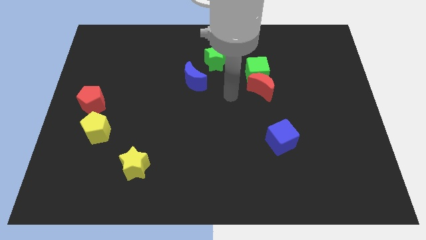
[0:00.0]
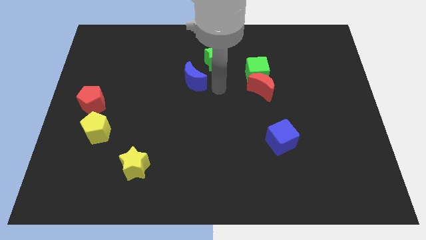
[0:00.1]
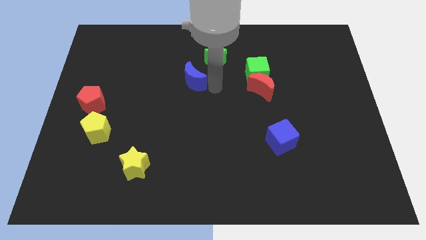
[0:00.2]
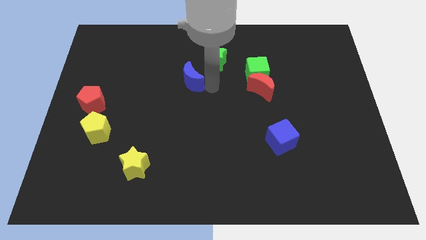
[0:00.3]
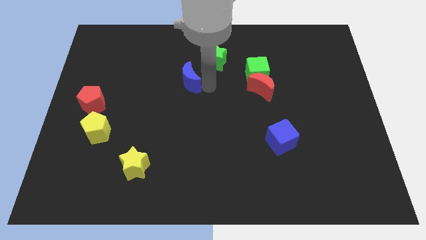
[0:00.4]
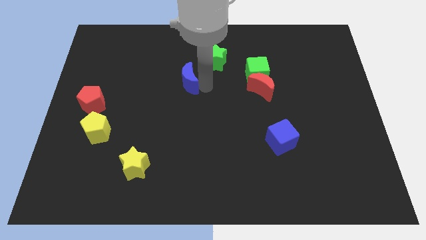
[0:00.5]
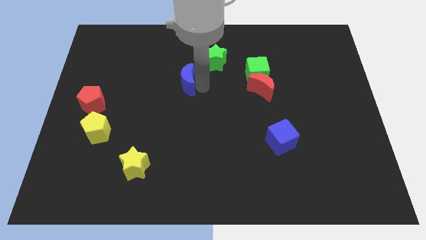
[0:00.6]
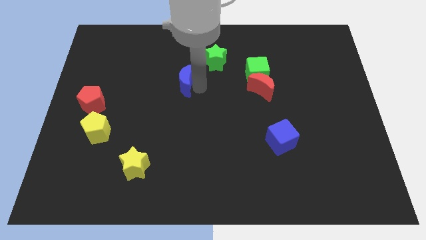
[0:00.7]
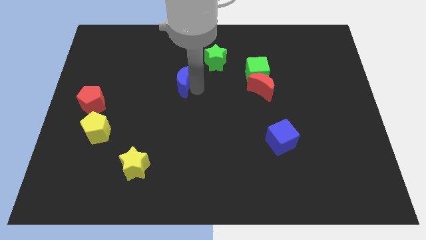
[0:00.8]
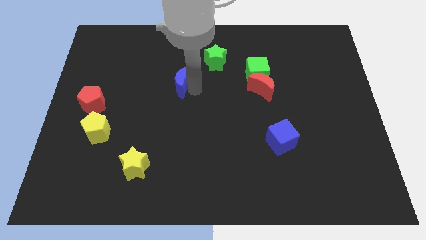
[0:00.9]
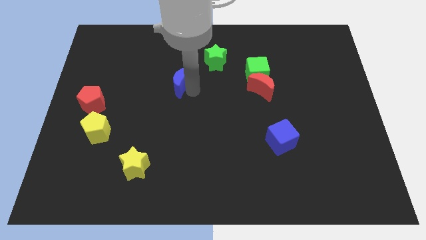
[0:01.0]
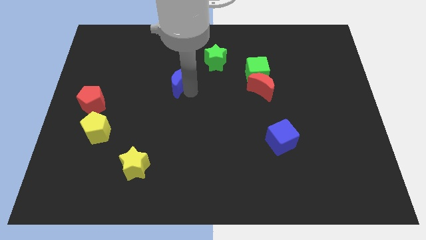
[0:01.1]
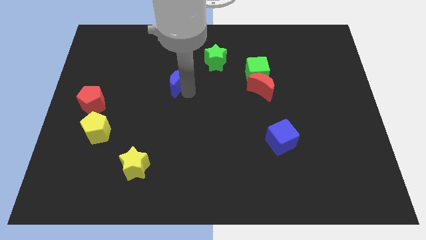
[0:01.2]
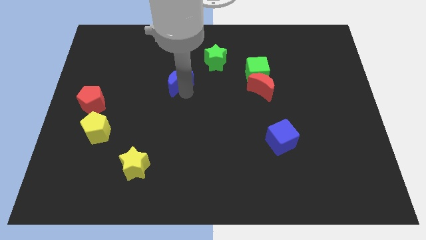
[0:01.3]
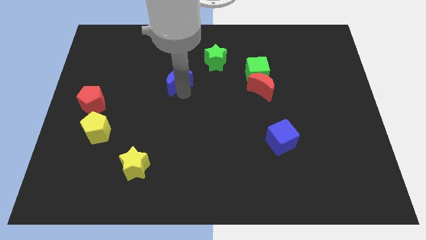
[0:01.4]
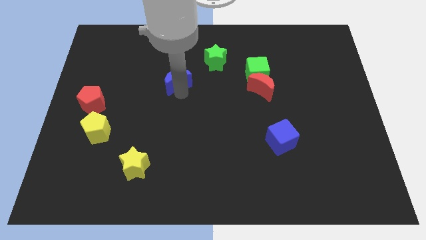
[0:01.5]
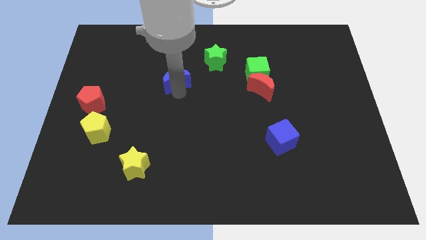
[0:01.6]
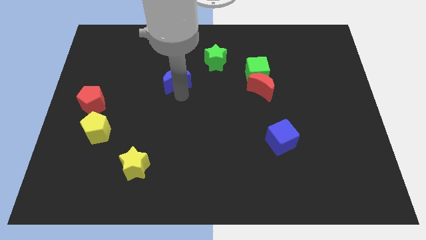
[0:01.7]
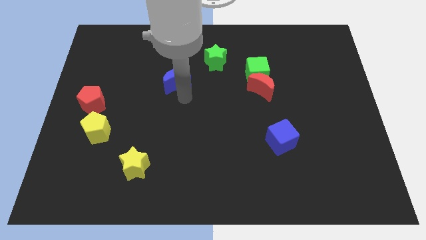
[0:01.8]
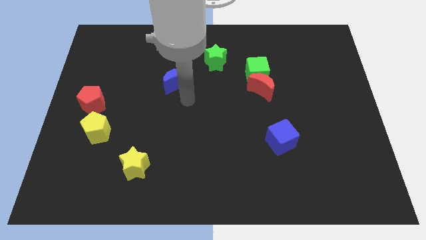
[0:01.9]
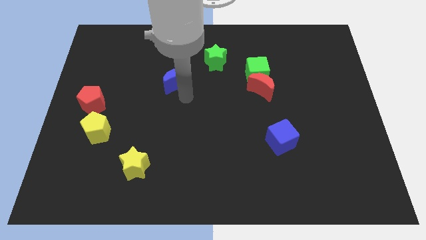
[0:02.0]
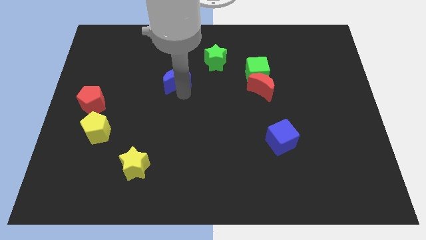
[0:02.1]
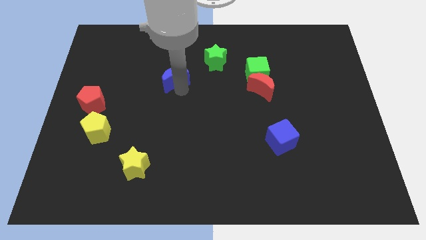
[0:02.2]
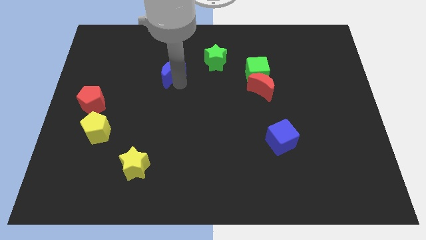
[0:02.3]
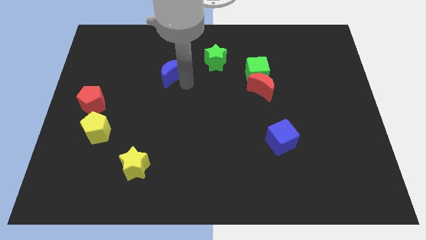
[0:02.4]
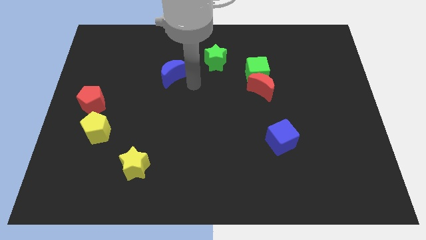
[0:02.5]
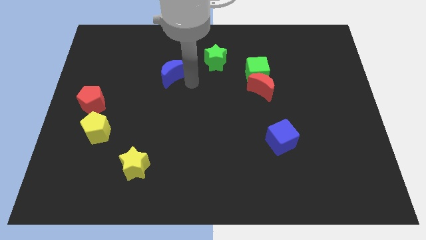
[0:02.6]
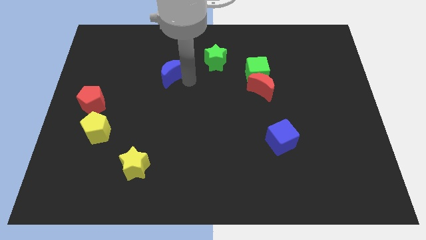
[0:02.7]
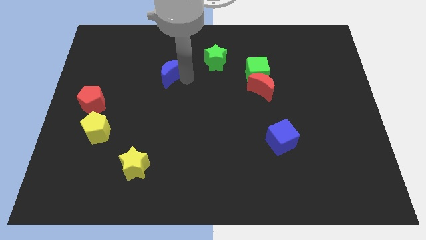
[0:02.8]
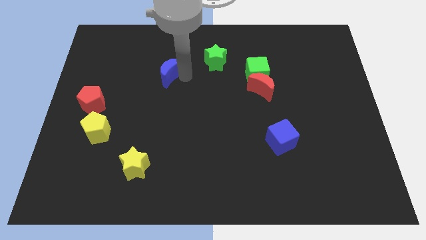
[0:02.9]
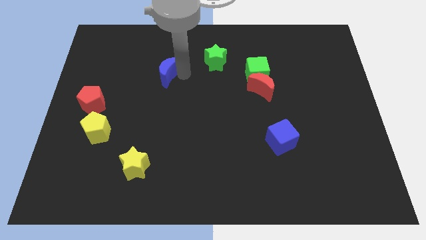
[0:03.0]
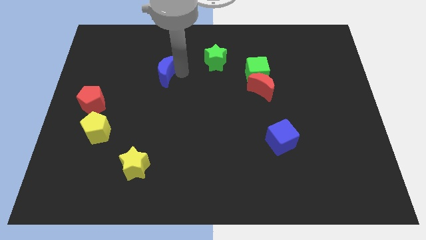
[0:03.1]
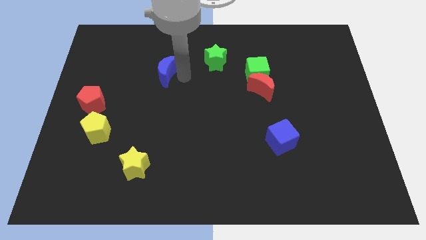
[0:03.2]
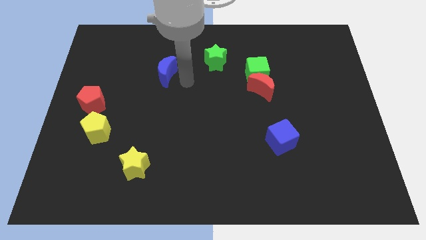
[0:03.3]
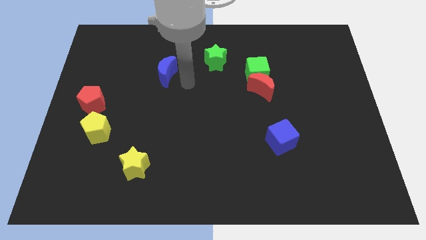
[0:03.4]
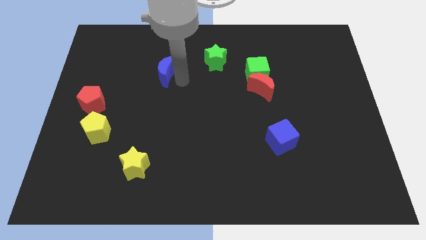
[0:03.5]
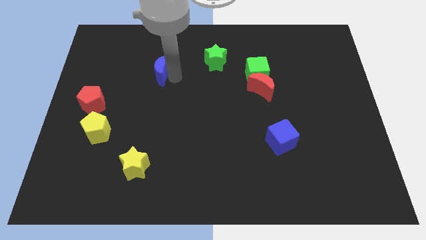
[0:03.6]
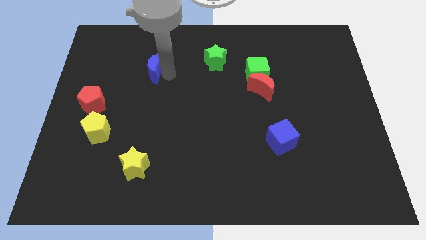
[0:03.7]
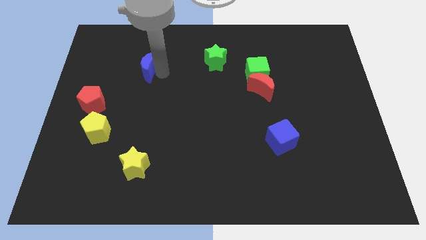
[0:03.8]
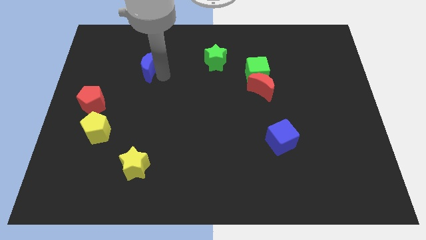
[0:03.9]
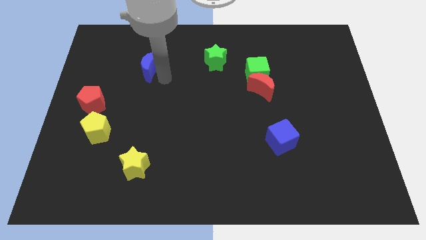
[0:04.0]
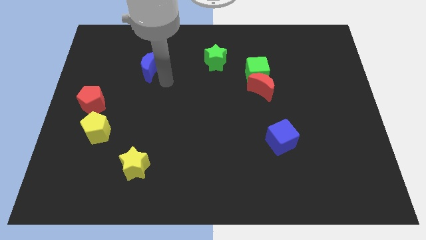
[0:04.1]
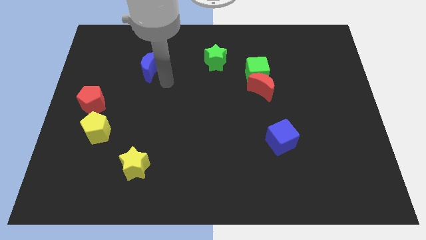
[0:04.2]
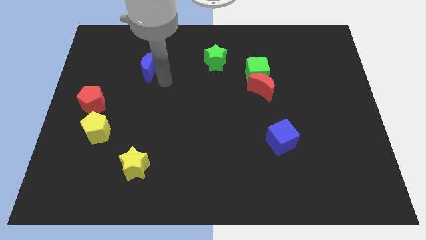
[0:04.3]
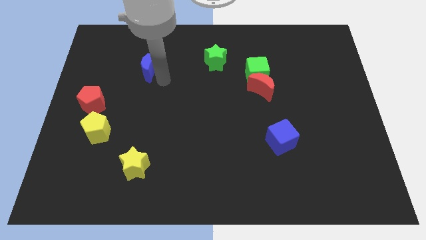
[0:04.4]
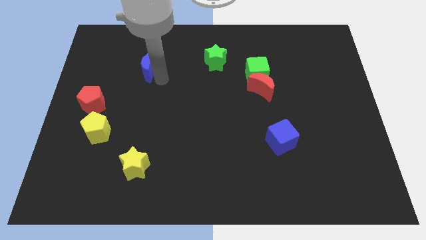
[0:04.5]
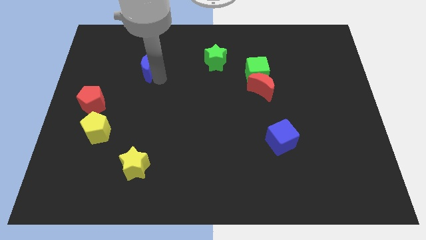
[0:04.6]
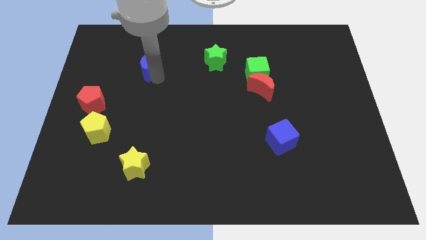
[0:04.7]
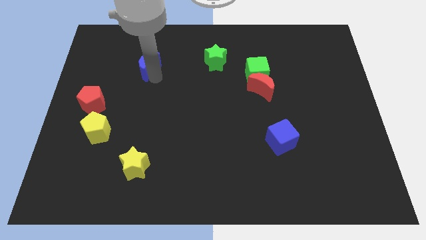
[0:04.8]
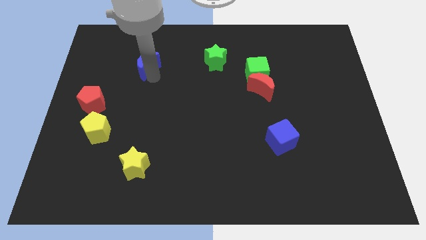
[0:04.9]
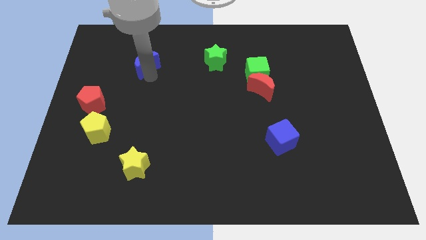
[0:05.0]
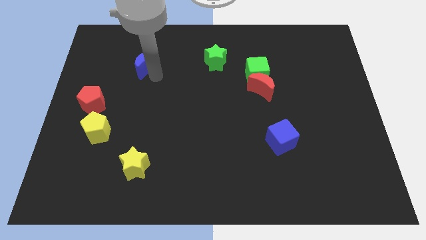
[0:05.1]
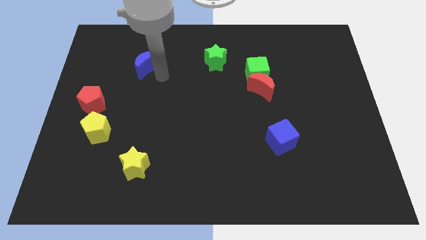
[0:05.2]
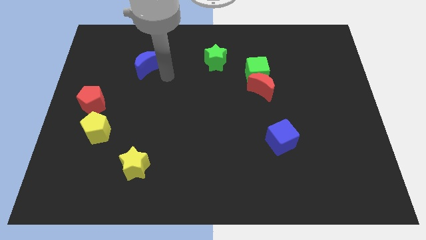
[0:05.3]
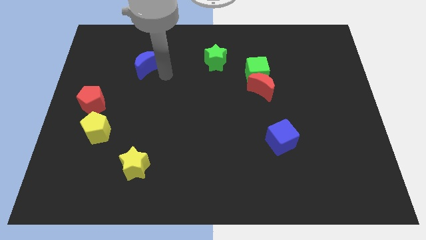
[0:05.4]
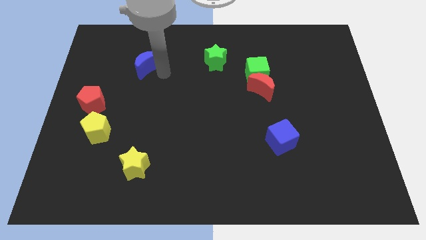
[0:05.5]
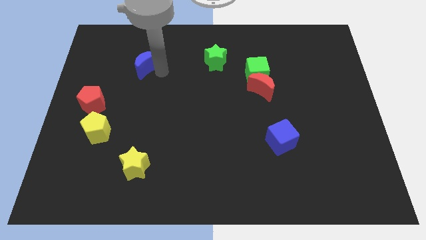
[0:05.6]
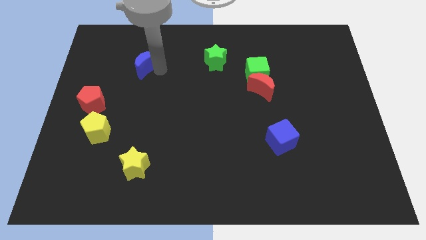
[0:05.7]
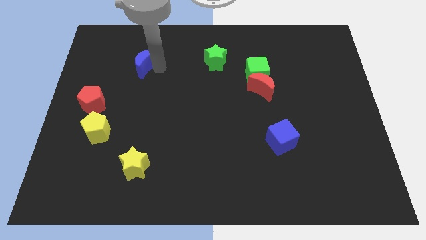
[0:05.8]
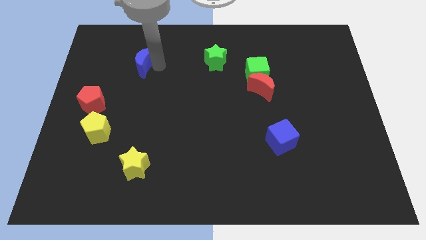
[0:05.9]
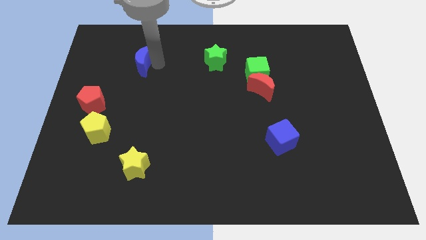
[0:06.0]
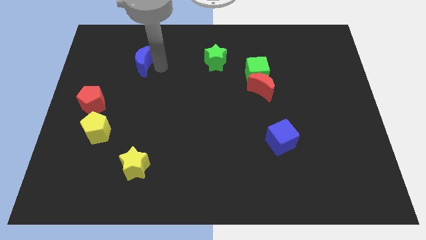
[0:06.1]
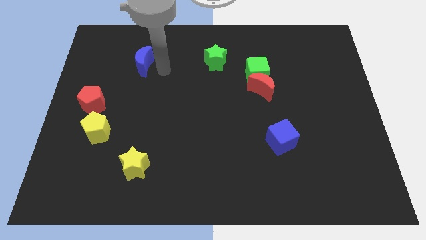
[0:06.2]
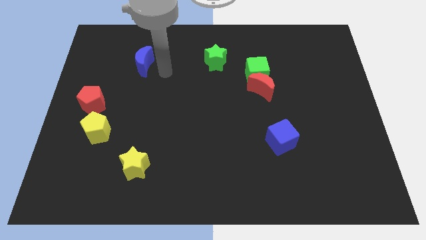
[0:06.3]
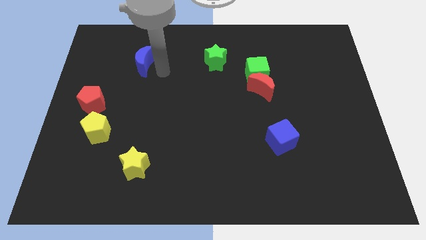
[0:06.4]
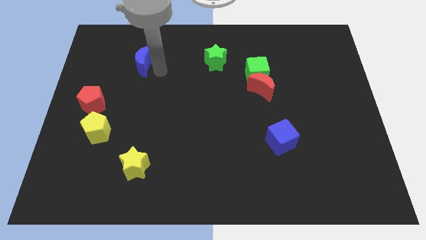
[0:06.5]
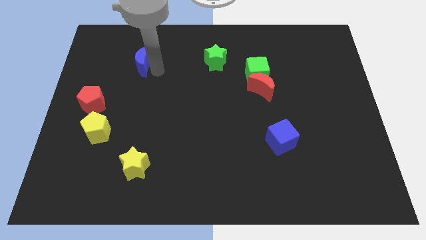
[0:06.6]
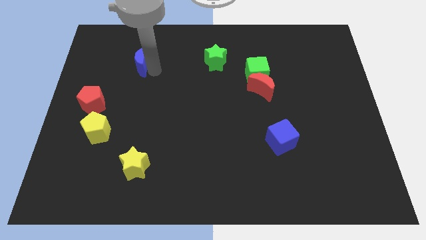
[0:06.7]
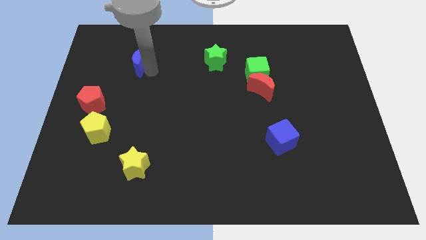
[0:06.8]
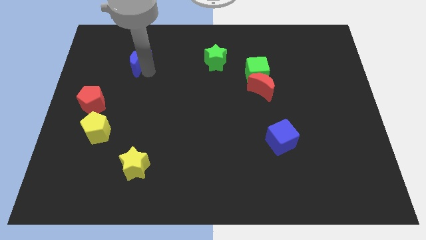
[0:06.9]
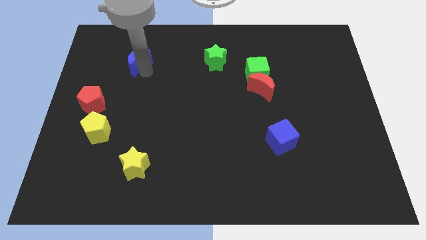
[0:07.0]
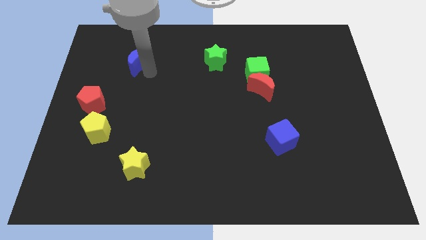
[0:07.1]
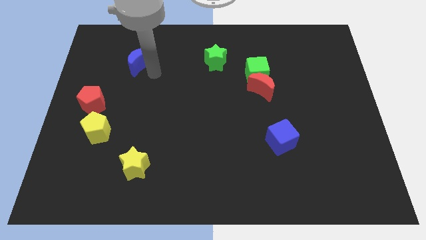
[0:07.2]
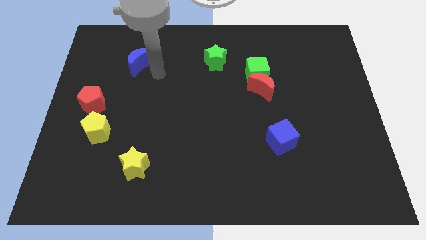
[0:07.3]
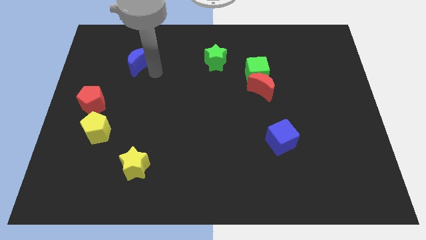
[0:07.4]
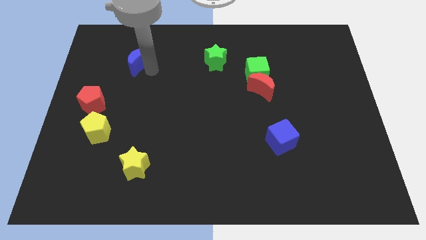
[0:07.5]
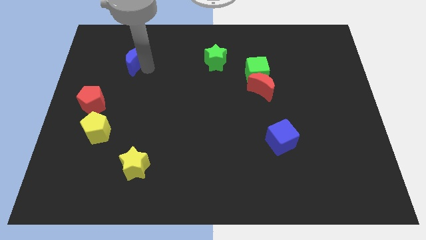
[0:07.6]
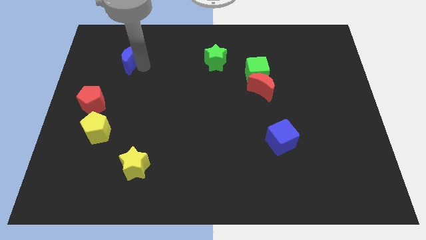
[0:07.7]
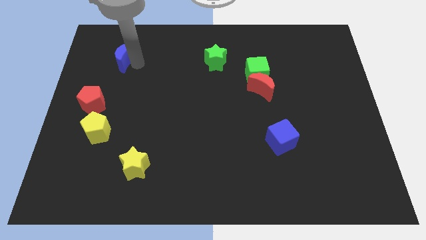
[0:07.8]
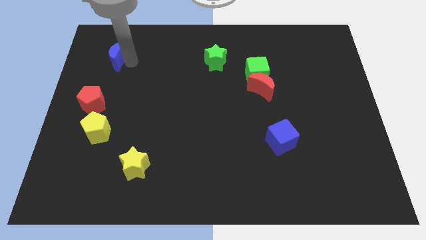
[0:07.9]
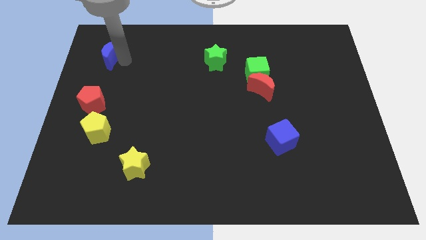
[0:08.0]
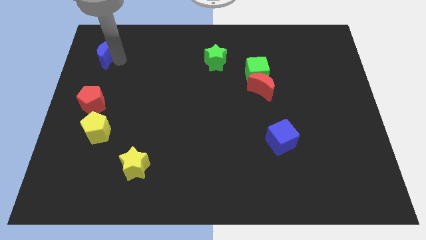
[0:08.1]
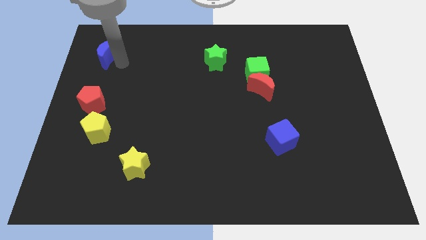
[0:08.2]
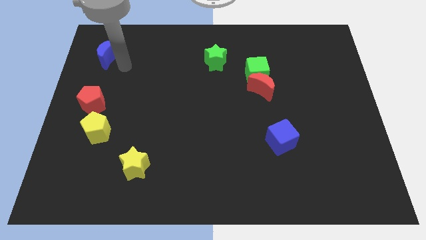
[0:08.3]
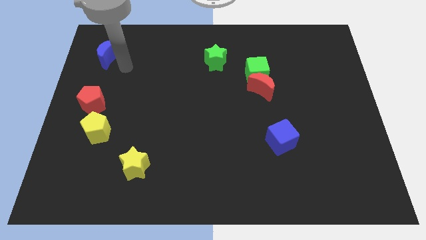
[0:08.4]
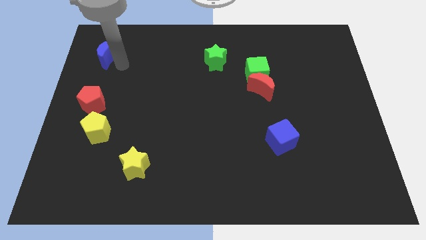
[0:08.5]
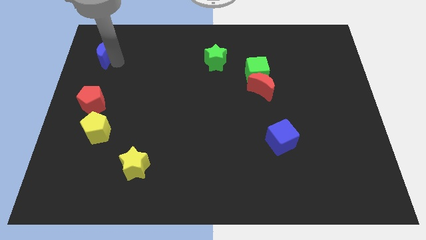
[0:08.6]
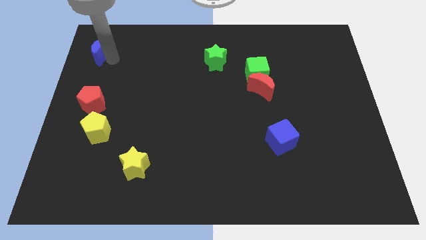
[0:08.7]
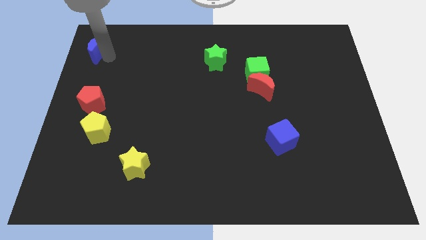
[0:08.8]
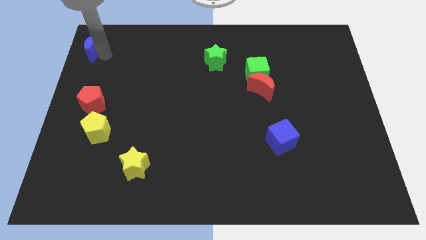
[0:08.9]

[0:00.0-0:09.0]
push the blue moon to the upper left corner
